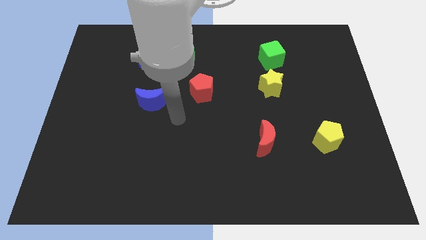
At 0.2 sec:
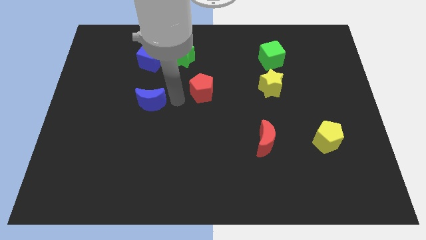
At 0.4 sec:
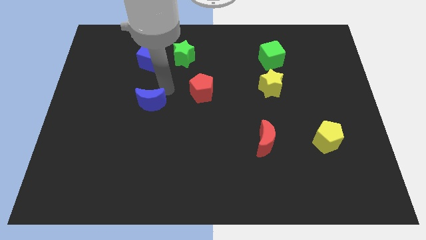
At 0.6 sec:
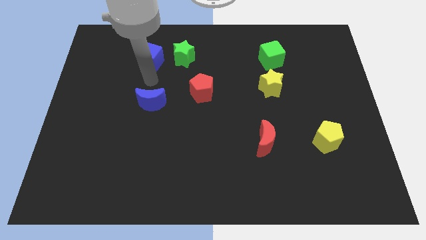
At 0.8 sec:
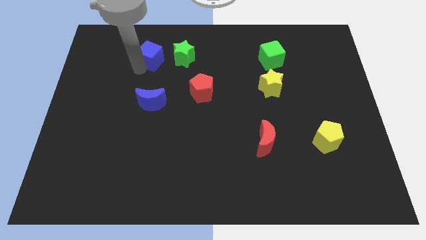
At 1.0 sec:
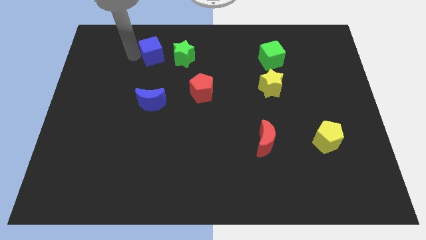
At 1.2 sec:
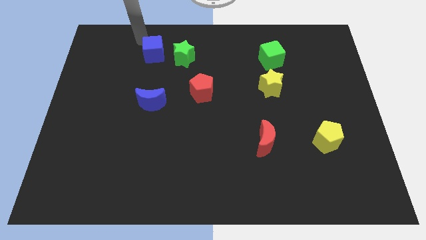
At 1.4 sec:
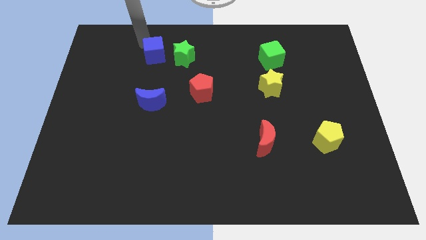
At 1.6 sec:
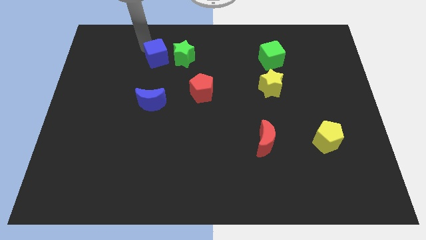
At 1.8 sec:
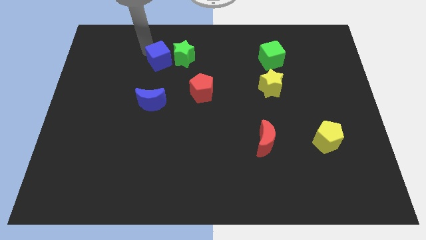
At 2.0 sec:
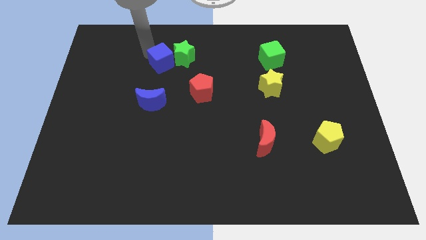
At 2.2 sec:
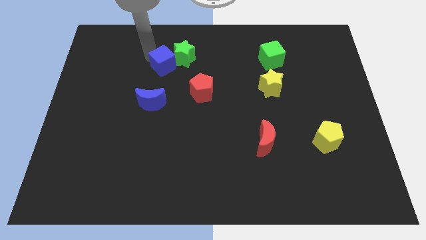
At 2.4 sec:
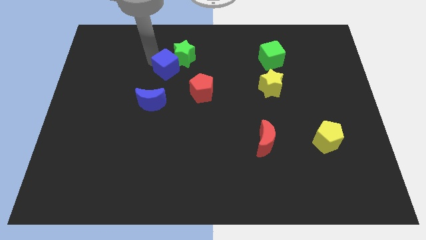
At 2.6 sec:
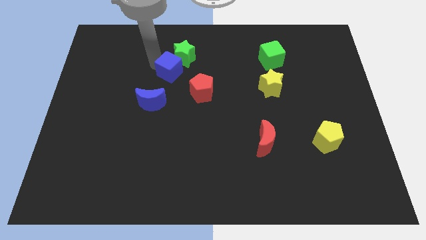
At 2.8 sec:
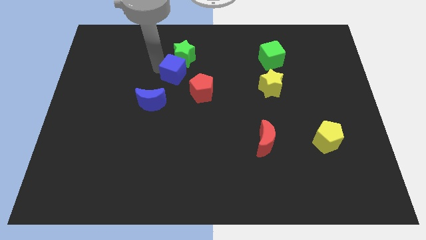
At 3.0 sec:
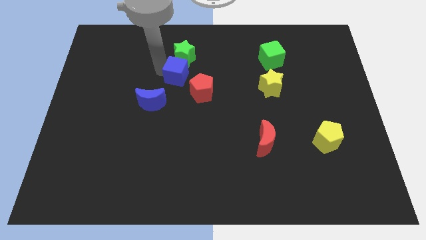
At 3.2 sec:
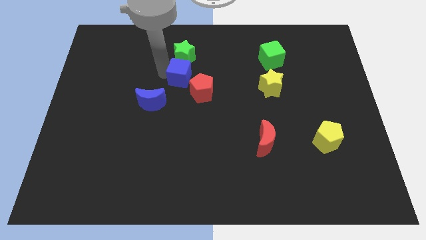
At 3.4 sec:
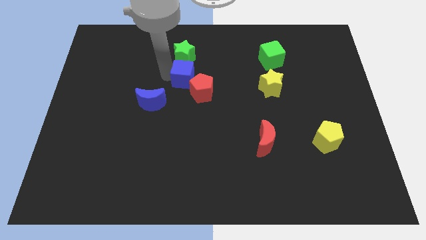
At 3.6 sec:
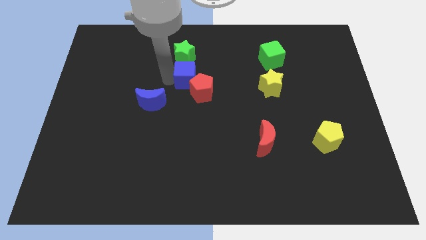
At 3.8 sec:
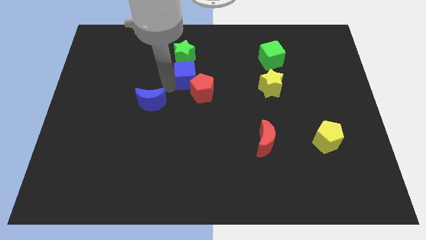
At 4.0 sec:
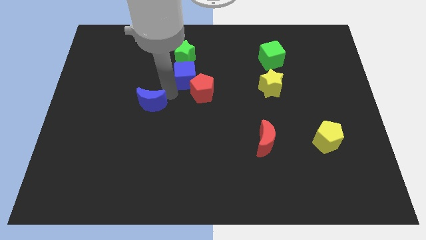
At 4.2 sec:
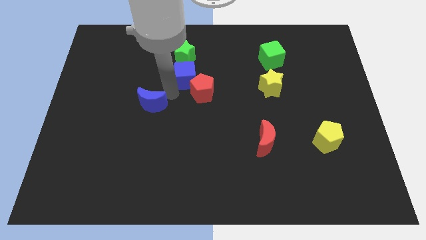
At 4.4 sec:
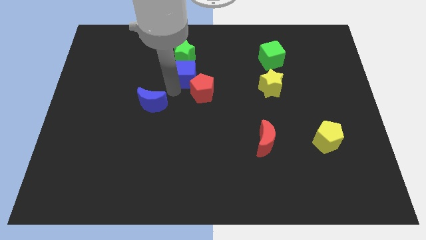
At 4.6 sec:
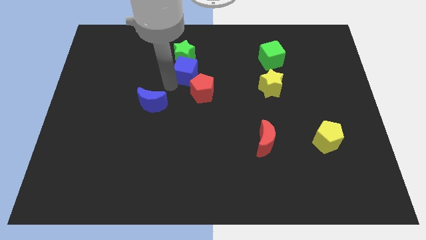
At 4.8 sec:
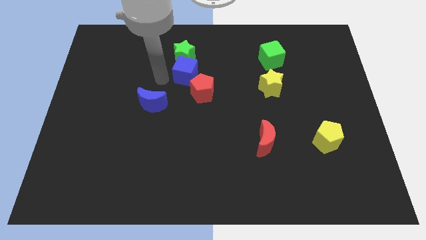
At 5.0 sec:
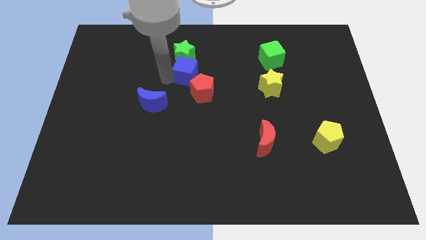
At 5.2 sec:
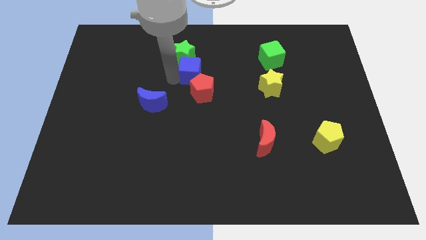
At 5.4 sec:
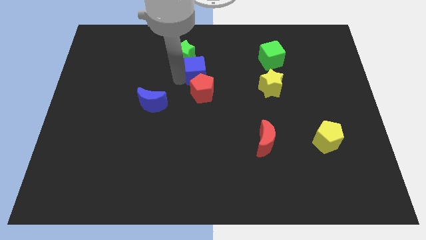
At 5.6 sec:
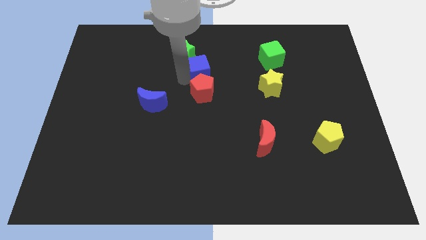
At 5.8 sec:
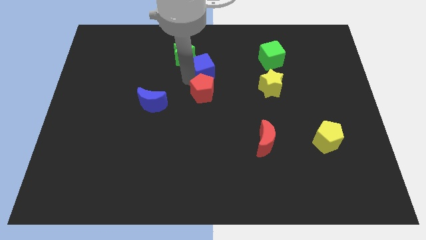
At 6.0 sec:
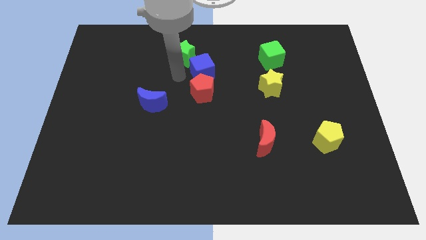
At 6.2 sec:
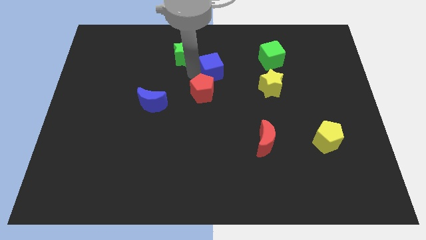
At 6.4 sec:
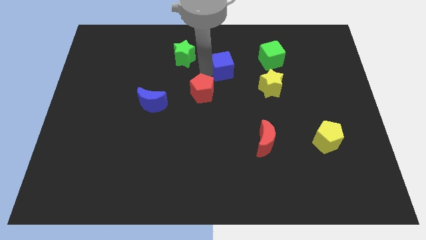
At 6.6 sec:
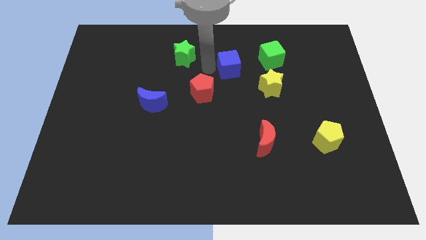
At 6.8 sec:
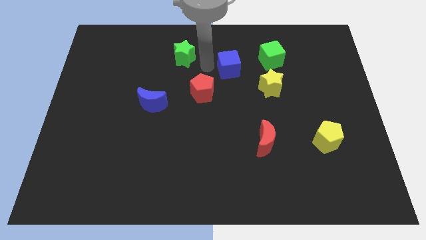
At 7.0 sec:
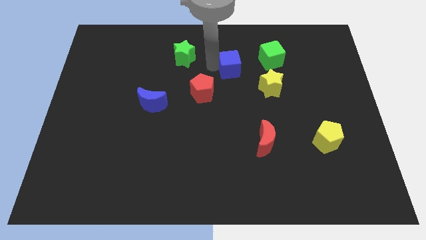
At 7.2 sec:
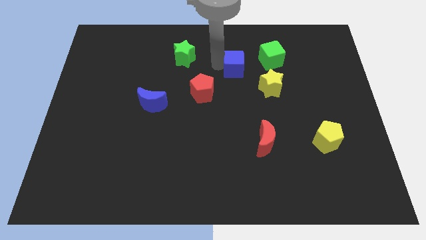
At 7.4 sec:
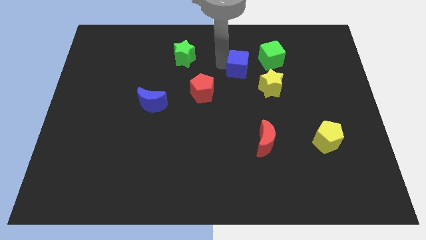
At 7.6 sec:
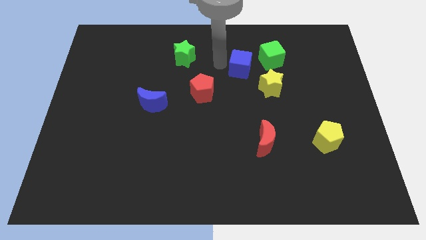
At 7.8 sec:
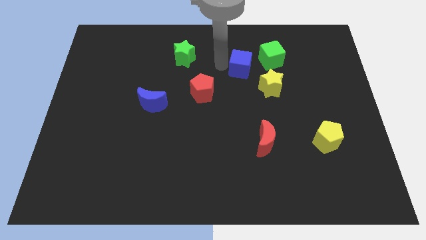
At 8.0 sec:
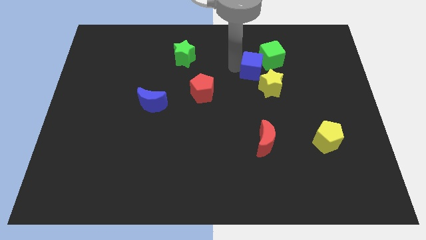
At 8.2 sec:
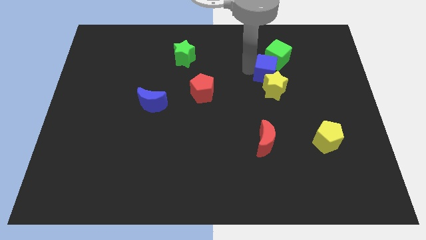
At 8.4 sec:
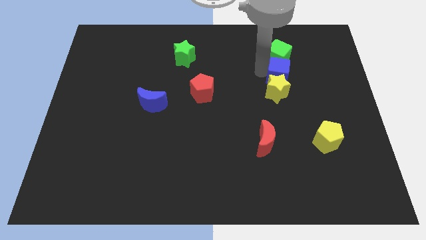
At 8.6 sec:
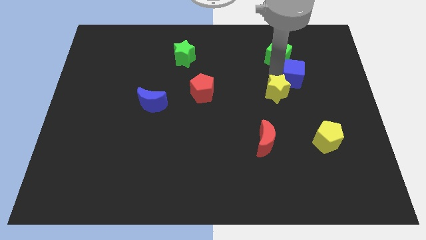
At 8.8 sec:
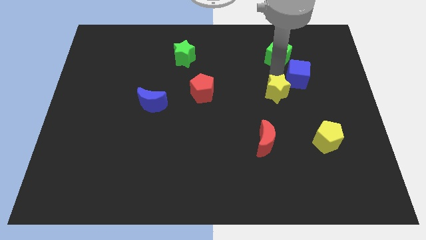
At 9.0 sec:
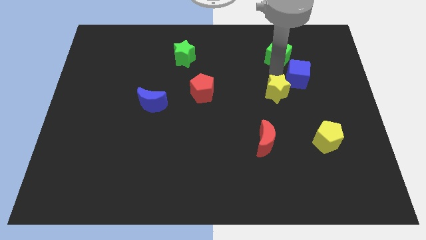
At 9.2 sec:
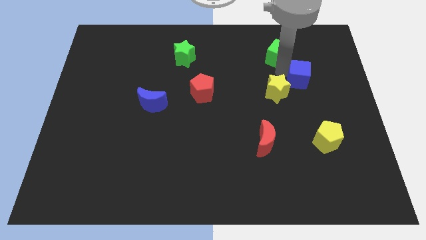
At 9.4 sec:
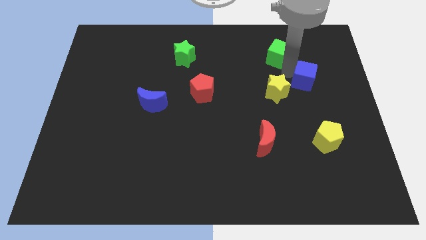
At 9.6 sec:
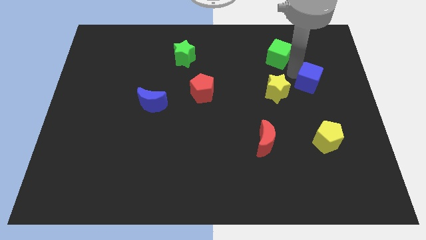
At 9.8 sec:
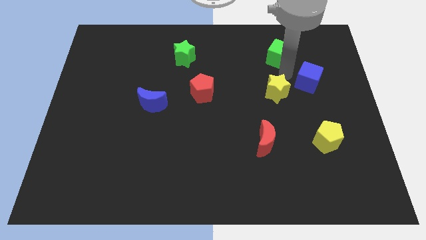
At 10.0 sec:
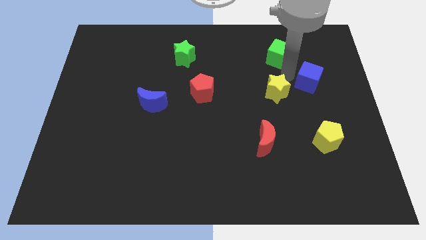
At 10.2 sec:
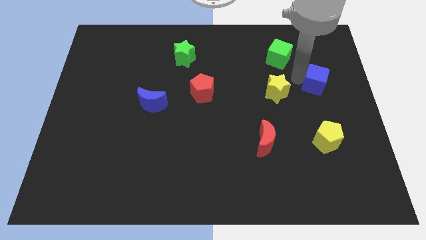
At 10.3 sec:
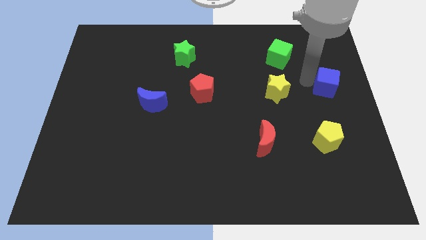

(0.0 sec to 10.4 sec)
move the blue cube to the center right

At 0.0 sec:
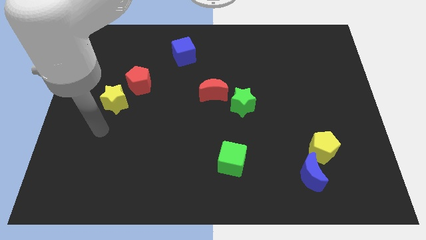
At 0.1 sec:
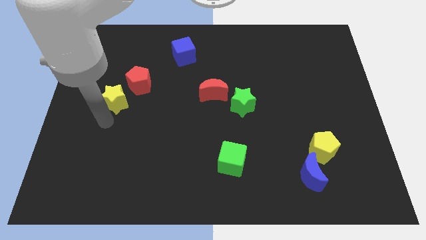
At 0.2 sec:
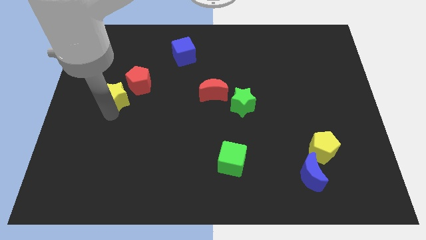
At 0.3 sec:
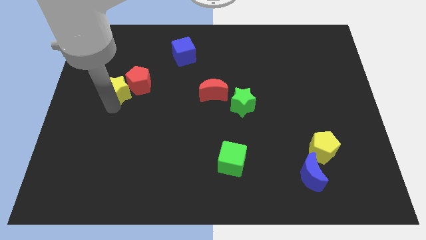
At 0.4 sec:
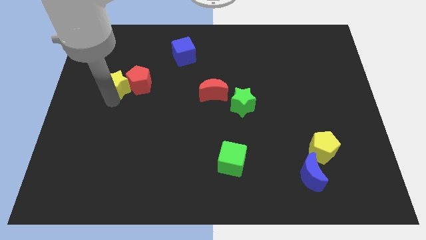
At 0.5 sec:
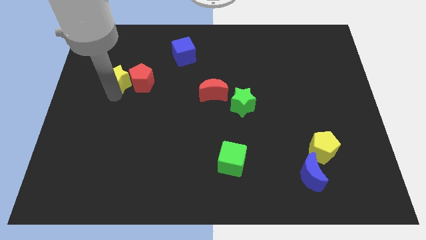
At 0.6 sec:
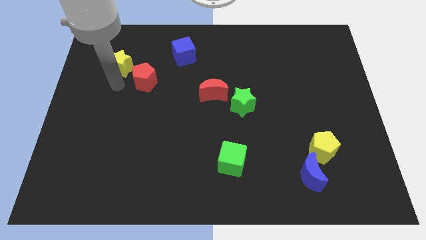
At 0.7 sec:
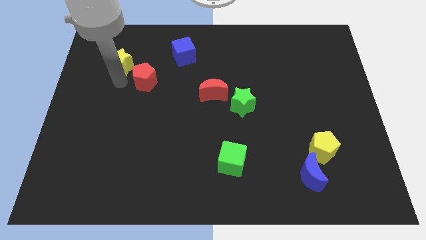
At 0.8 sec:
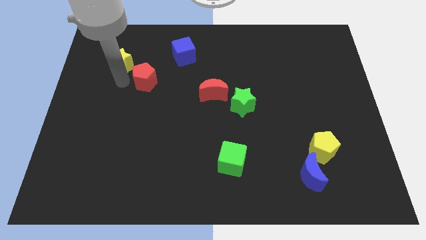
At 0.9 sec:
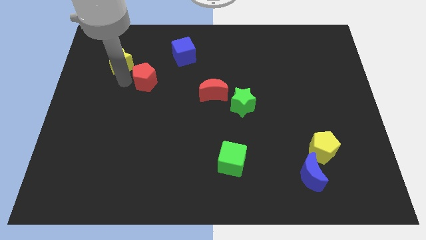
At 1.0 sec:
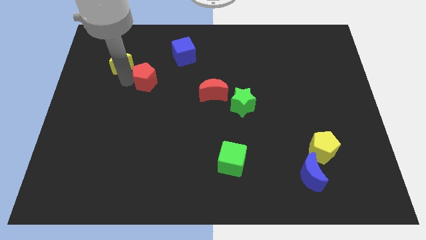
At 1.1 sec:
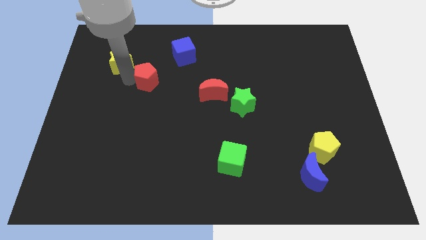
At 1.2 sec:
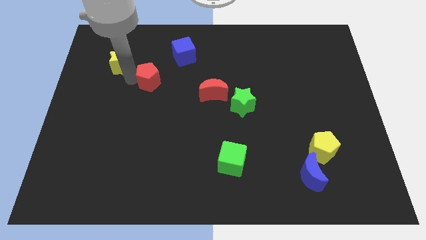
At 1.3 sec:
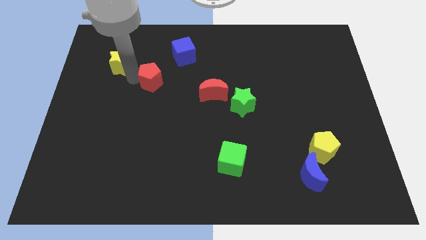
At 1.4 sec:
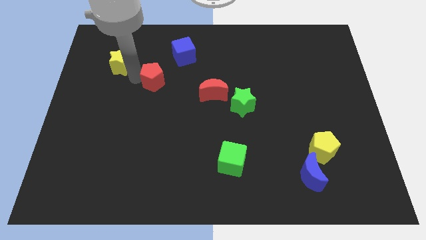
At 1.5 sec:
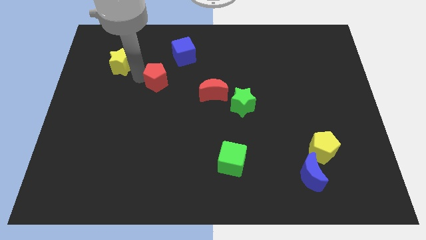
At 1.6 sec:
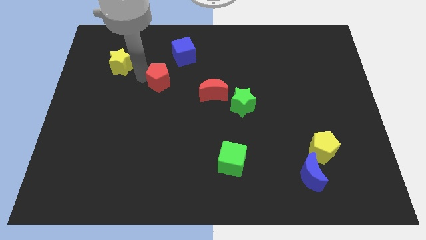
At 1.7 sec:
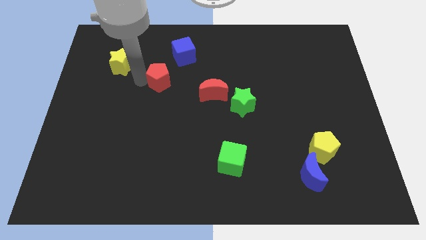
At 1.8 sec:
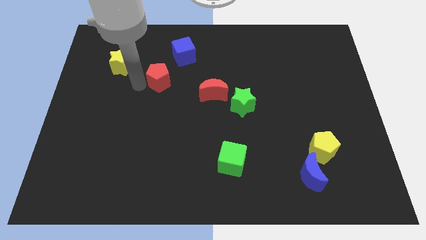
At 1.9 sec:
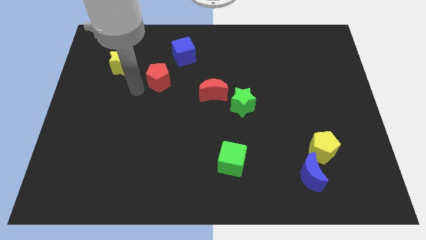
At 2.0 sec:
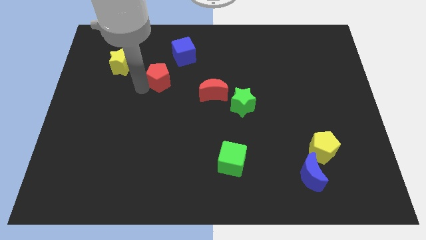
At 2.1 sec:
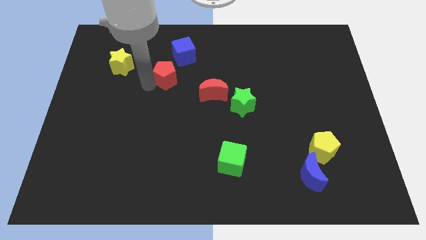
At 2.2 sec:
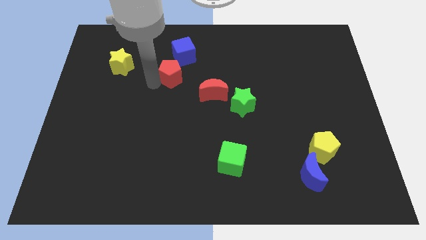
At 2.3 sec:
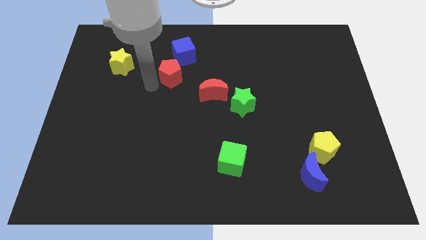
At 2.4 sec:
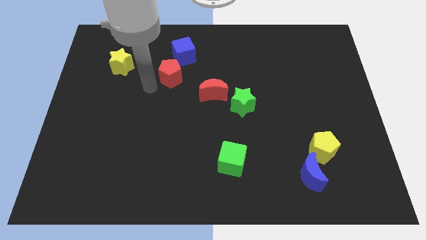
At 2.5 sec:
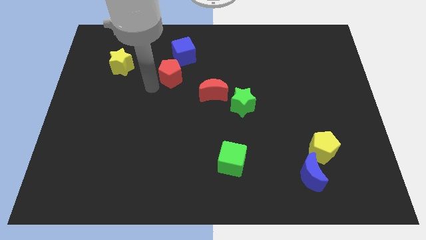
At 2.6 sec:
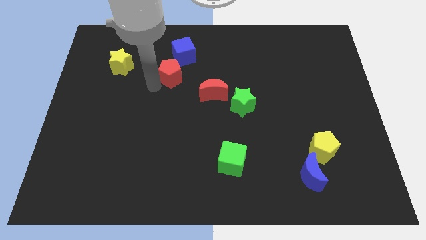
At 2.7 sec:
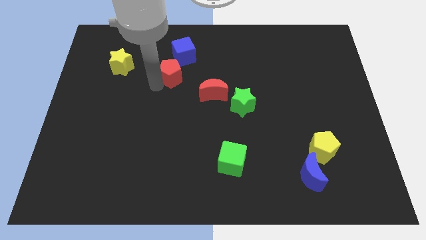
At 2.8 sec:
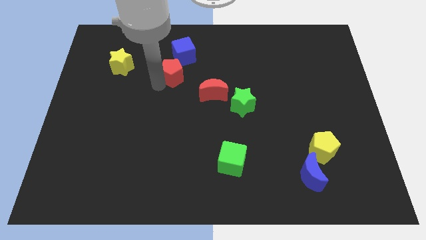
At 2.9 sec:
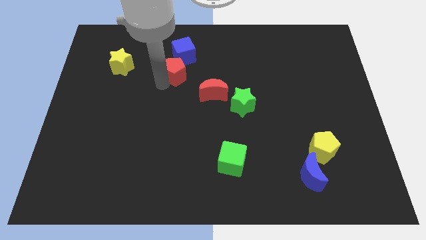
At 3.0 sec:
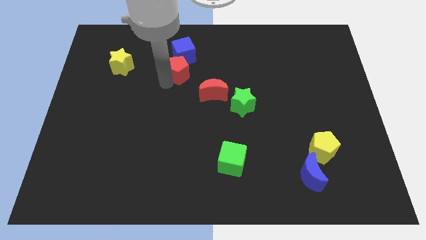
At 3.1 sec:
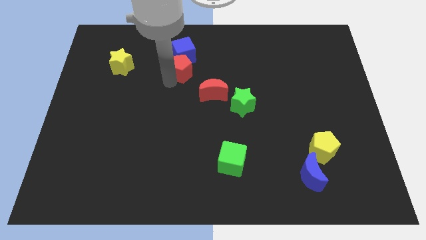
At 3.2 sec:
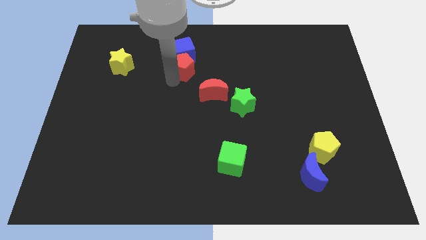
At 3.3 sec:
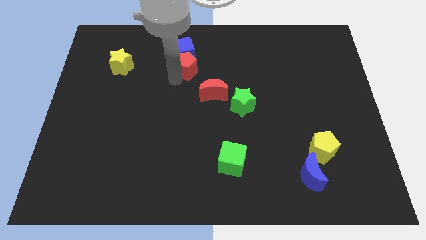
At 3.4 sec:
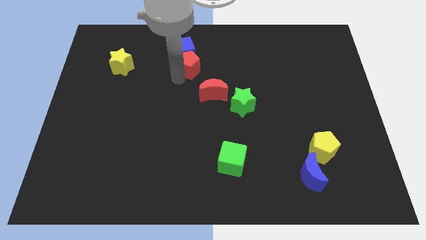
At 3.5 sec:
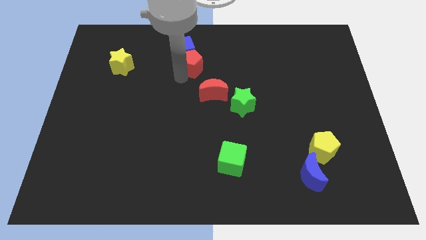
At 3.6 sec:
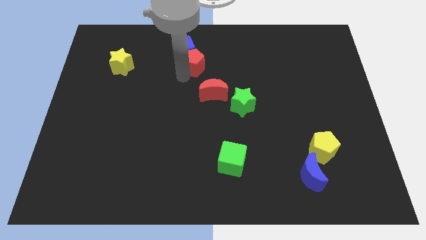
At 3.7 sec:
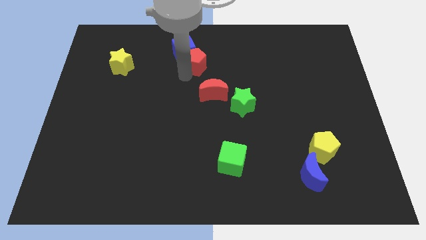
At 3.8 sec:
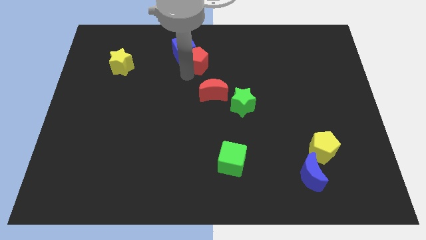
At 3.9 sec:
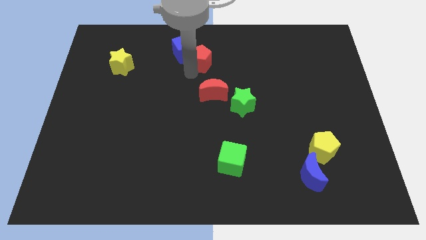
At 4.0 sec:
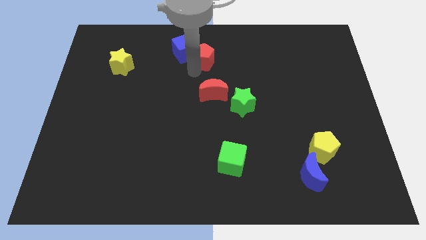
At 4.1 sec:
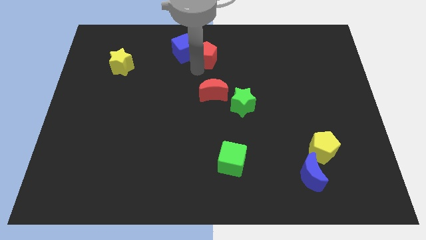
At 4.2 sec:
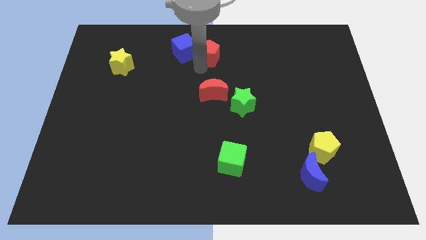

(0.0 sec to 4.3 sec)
push the red pentagon to the towards your base
